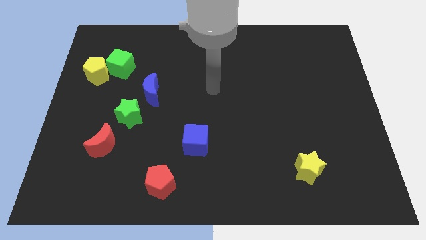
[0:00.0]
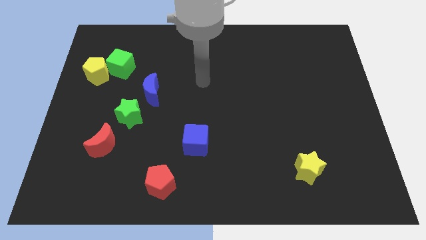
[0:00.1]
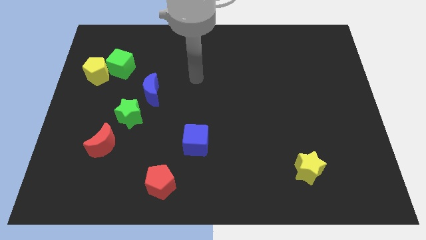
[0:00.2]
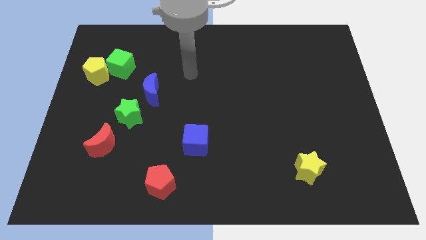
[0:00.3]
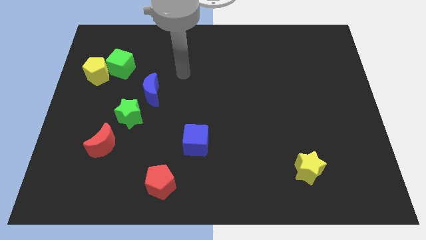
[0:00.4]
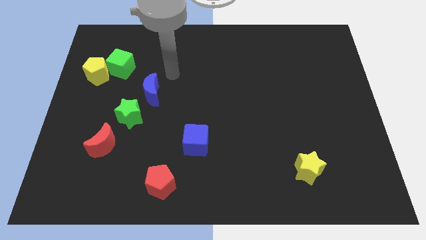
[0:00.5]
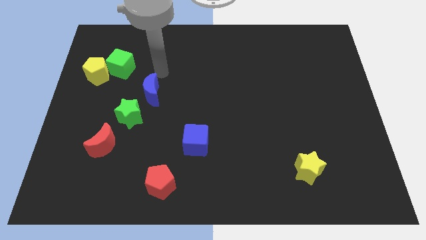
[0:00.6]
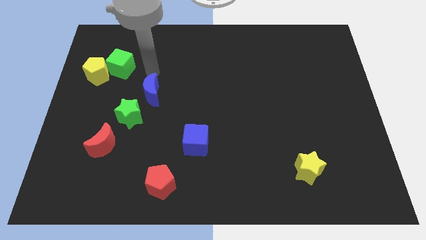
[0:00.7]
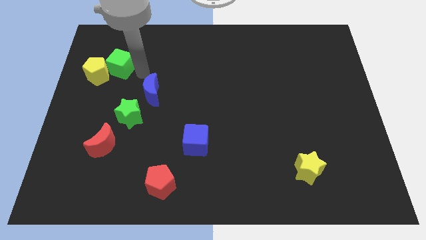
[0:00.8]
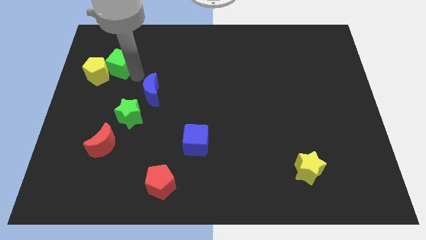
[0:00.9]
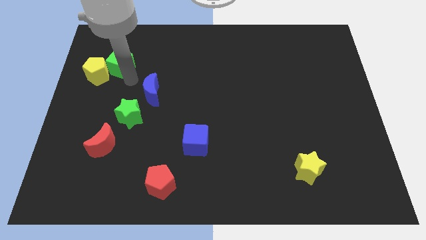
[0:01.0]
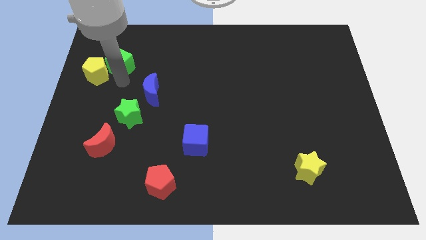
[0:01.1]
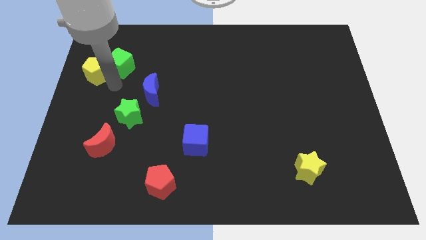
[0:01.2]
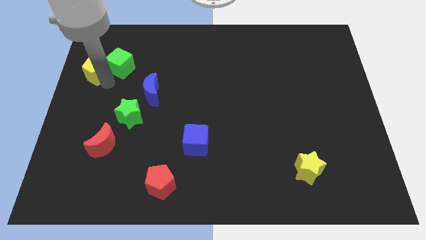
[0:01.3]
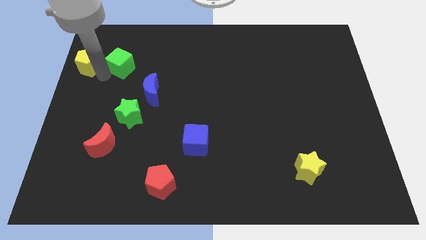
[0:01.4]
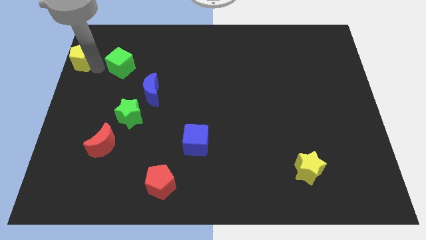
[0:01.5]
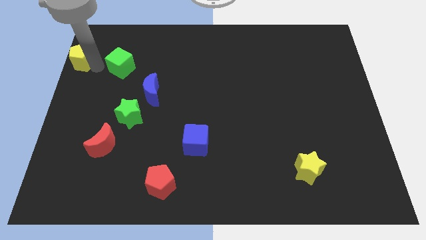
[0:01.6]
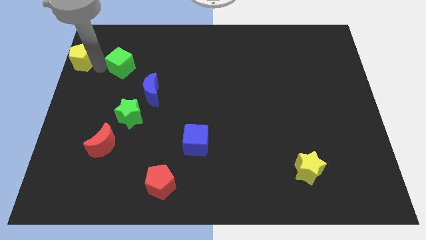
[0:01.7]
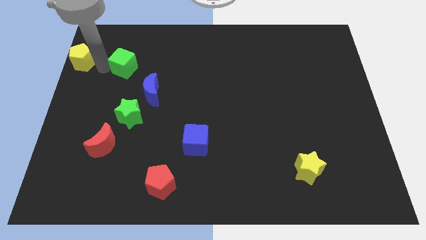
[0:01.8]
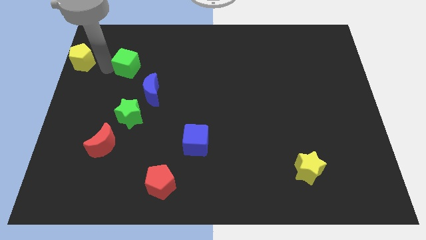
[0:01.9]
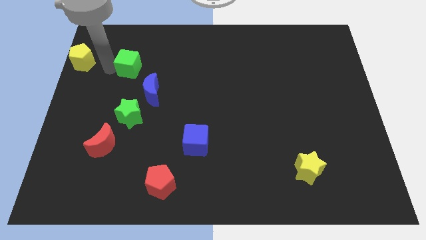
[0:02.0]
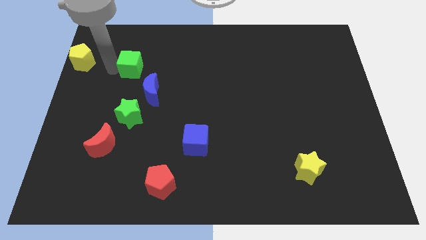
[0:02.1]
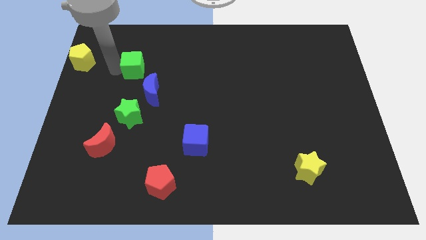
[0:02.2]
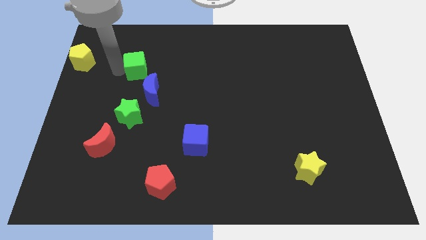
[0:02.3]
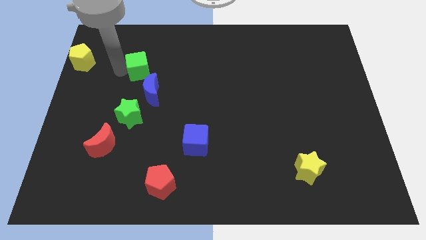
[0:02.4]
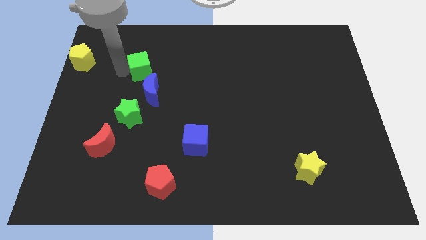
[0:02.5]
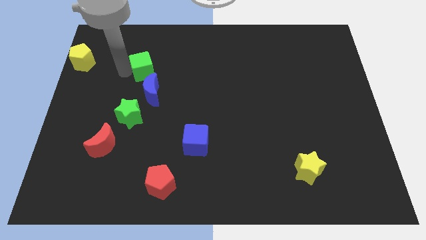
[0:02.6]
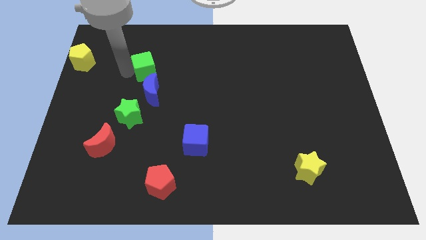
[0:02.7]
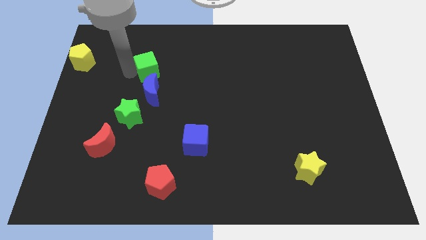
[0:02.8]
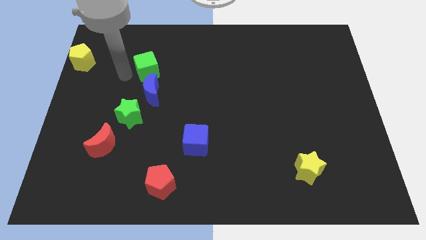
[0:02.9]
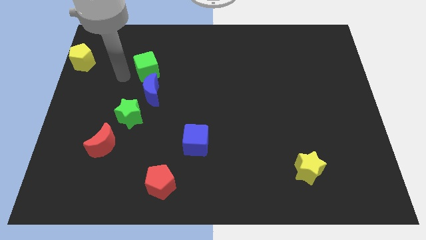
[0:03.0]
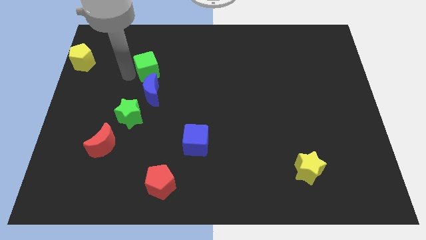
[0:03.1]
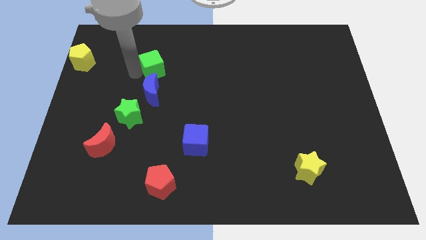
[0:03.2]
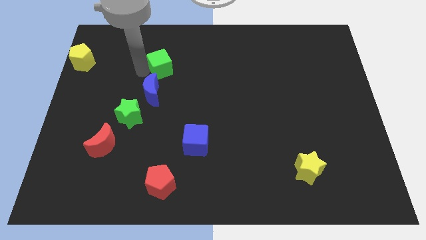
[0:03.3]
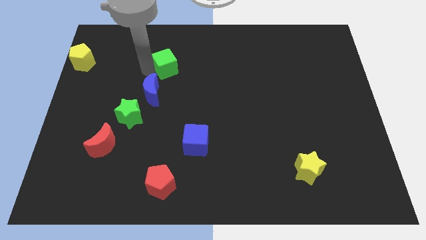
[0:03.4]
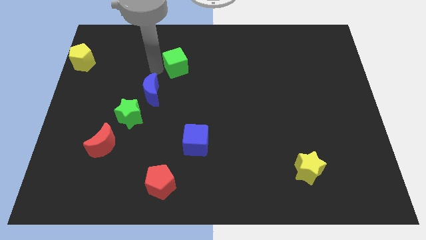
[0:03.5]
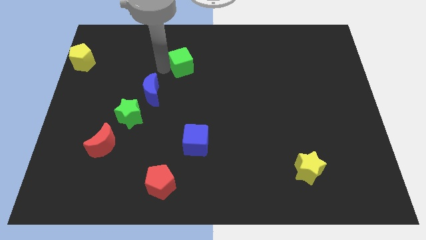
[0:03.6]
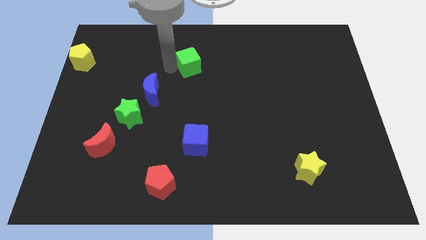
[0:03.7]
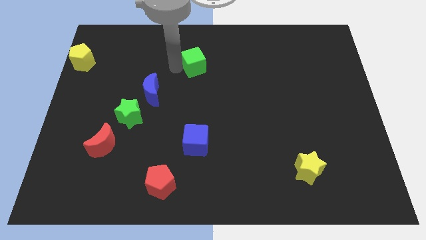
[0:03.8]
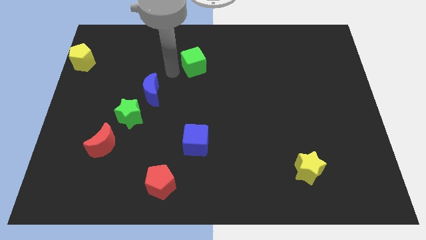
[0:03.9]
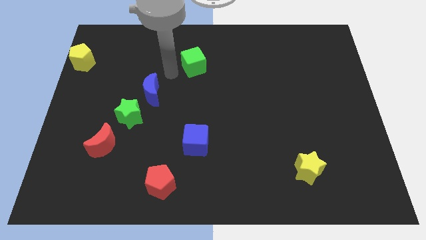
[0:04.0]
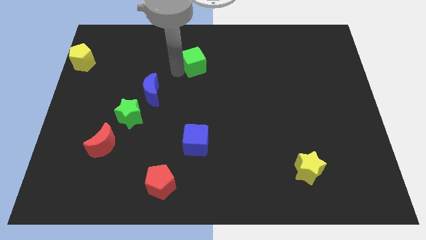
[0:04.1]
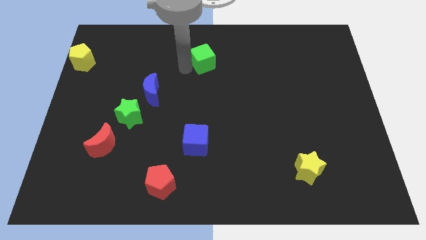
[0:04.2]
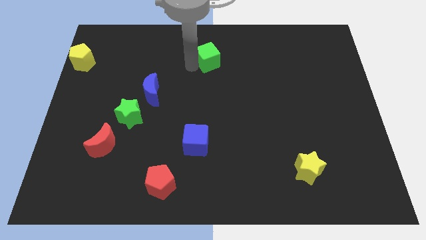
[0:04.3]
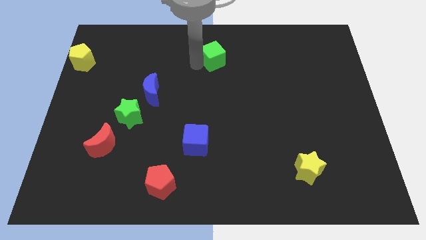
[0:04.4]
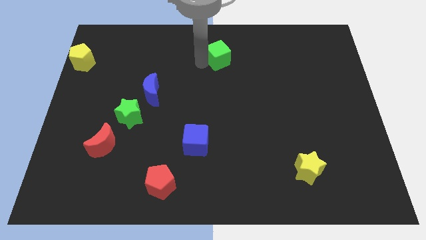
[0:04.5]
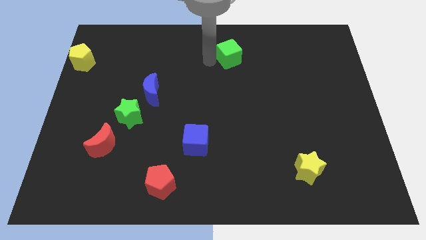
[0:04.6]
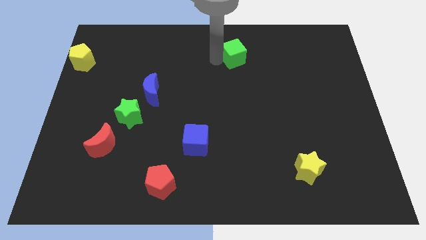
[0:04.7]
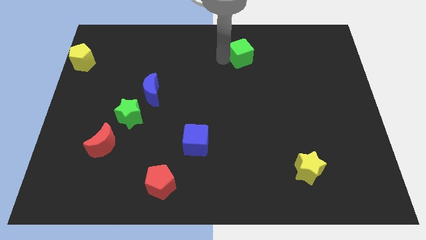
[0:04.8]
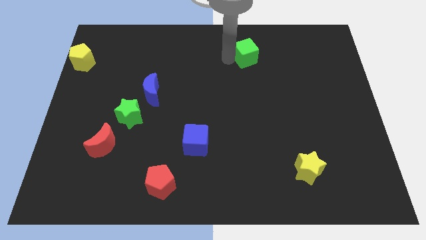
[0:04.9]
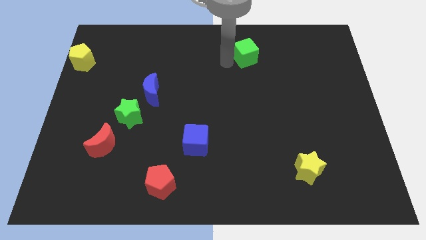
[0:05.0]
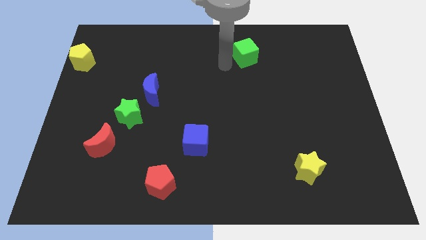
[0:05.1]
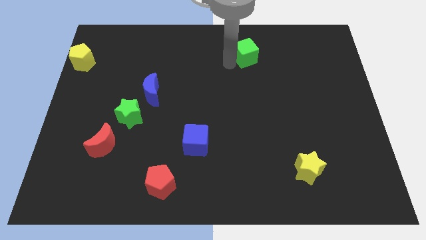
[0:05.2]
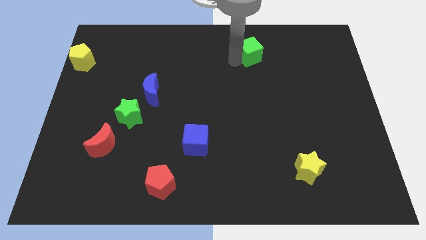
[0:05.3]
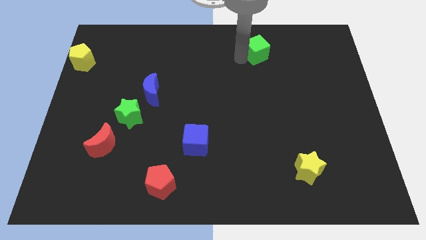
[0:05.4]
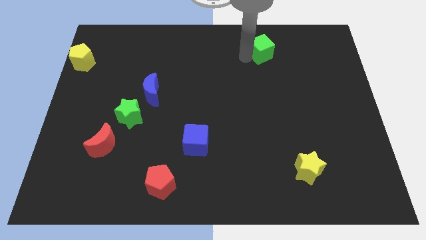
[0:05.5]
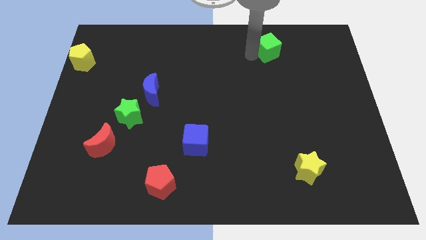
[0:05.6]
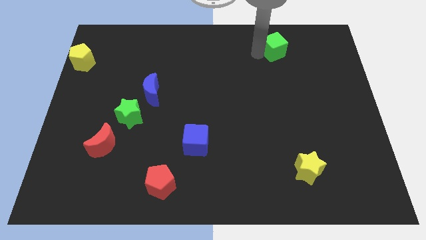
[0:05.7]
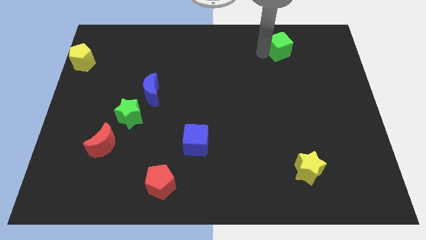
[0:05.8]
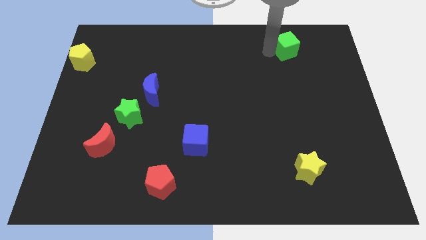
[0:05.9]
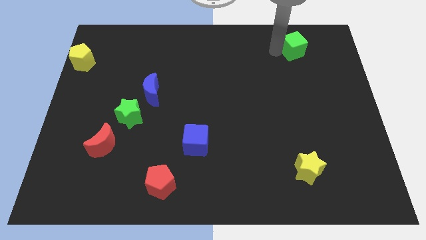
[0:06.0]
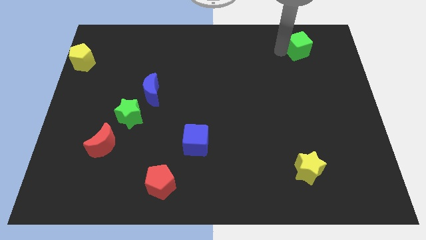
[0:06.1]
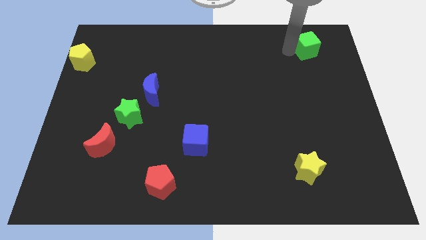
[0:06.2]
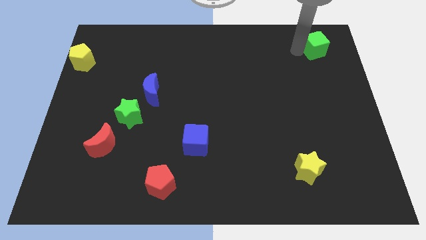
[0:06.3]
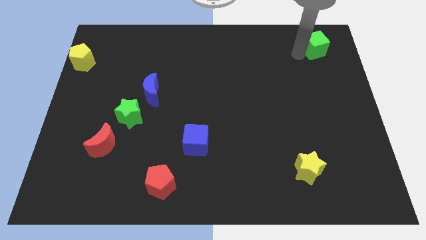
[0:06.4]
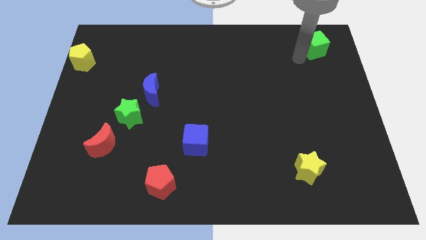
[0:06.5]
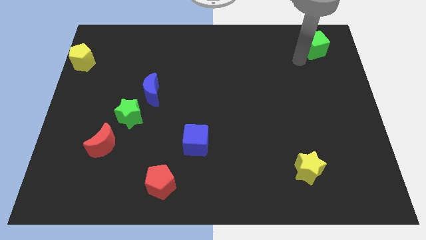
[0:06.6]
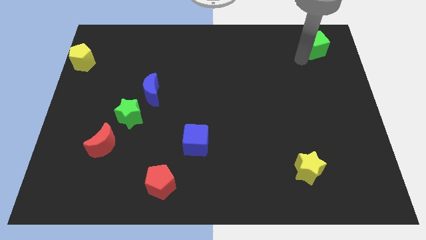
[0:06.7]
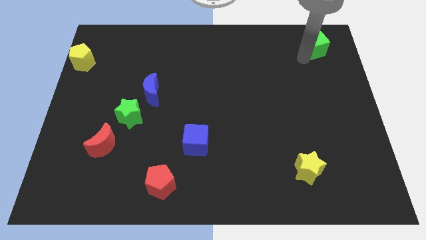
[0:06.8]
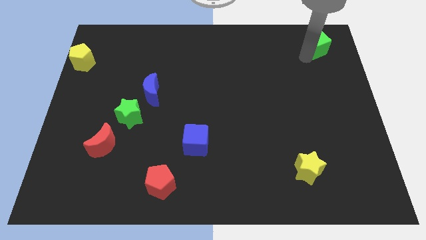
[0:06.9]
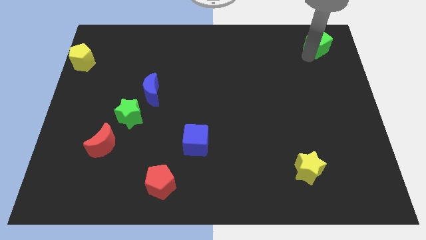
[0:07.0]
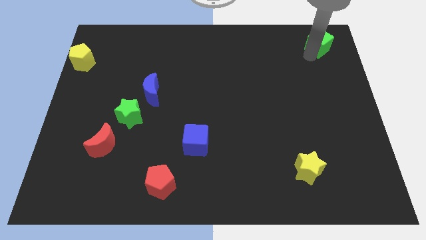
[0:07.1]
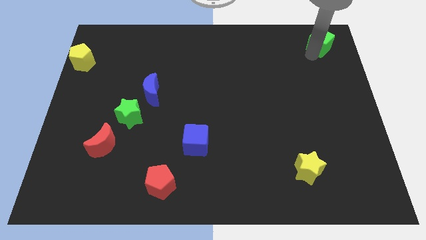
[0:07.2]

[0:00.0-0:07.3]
slide the green cube to the top right corner
